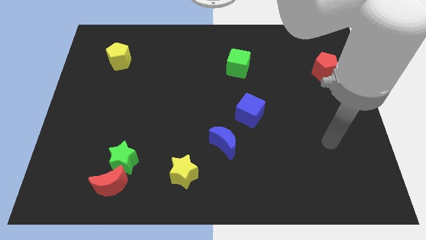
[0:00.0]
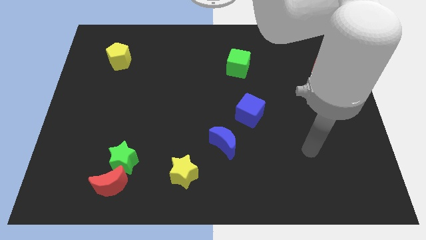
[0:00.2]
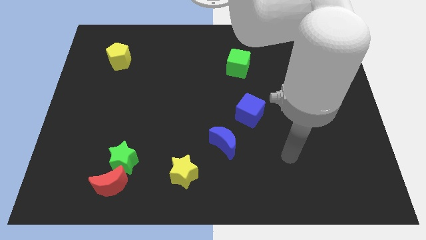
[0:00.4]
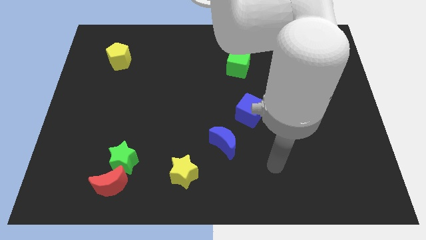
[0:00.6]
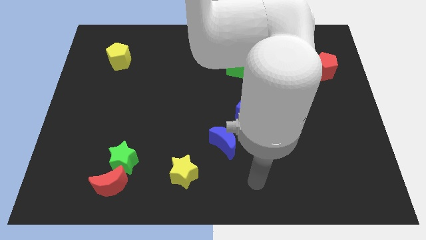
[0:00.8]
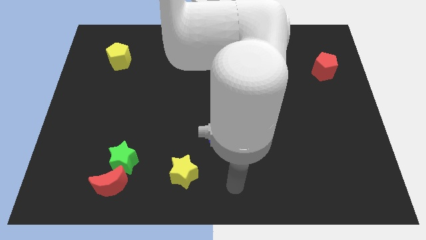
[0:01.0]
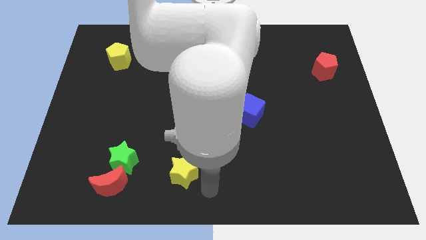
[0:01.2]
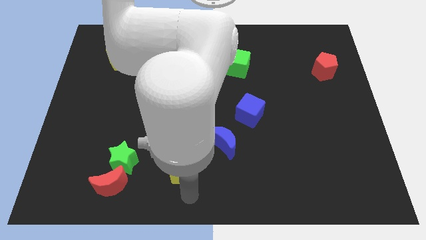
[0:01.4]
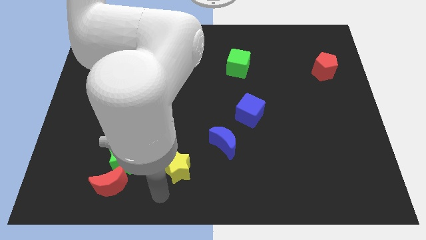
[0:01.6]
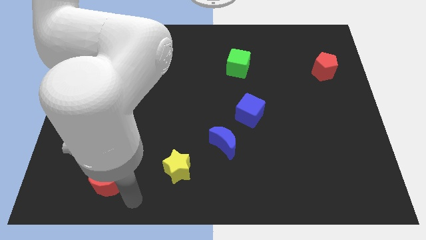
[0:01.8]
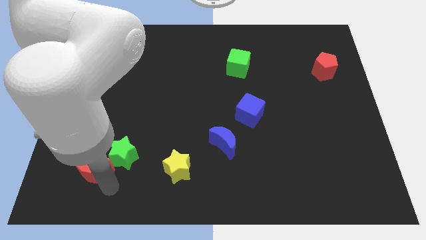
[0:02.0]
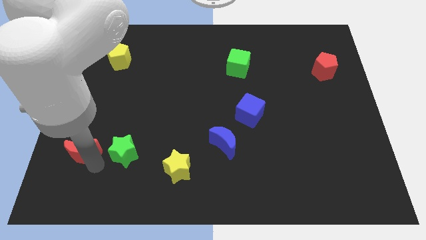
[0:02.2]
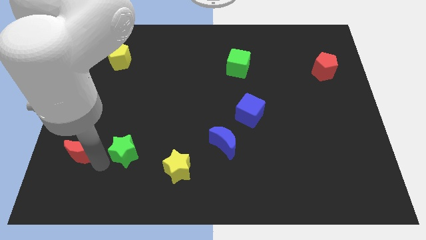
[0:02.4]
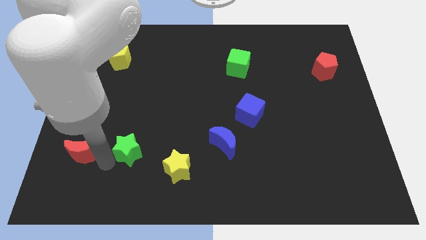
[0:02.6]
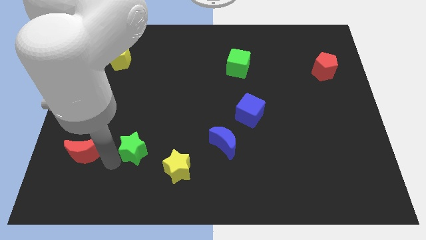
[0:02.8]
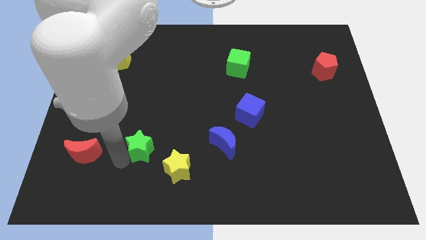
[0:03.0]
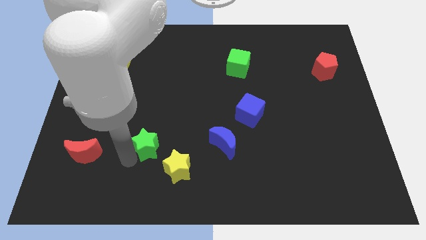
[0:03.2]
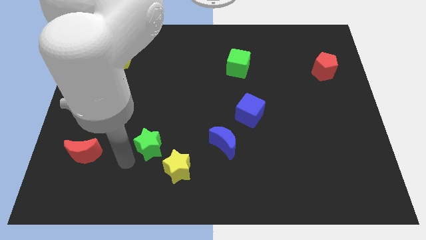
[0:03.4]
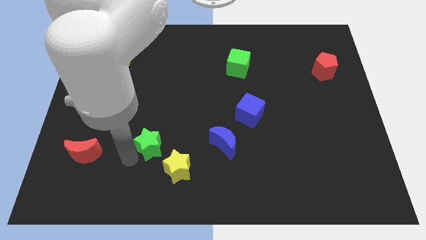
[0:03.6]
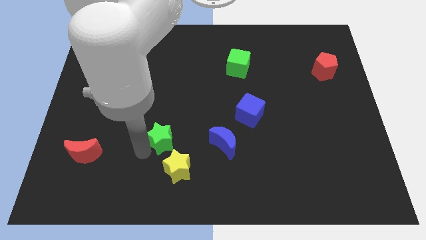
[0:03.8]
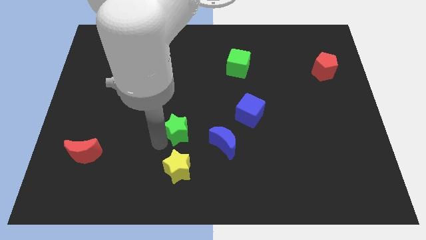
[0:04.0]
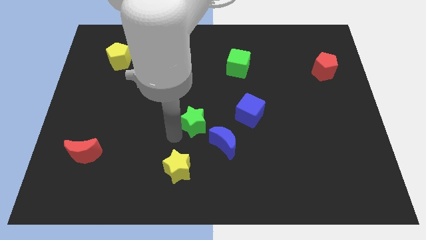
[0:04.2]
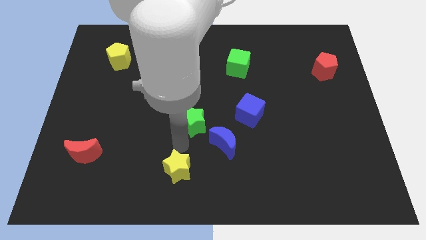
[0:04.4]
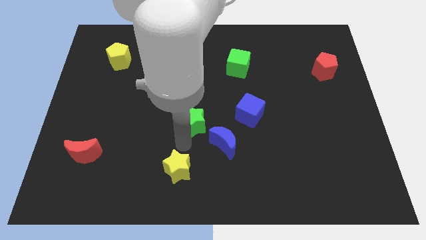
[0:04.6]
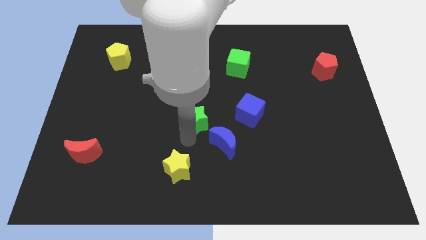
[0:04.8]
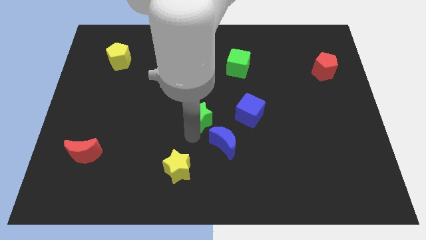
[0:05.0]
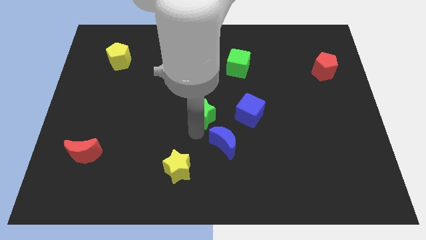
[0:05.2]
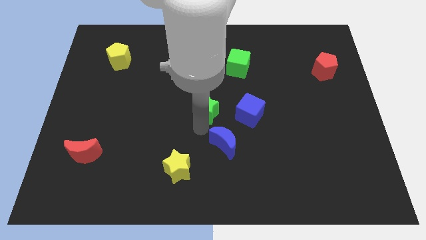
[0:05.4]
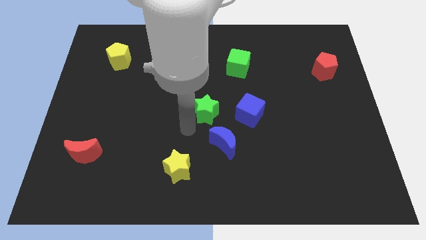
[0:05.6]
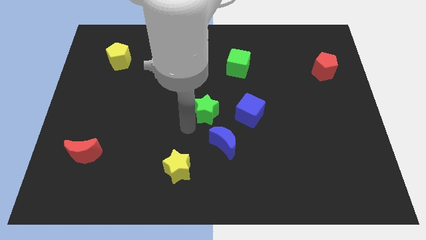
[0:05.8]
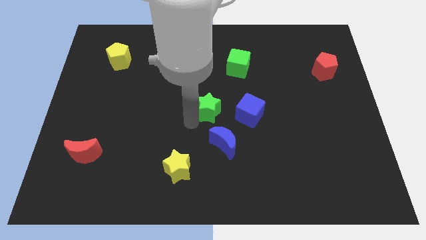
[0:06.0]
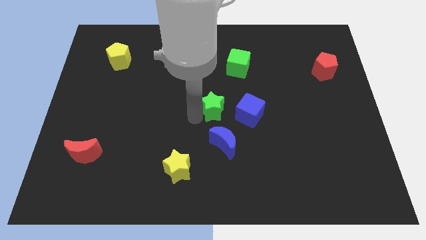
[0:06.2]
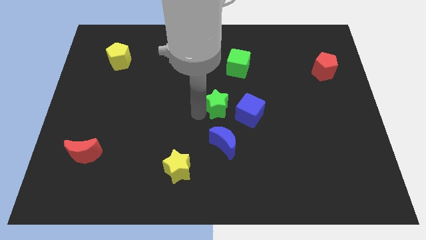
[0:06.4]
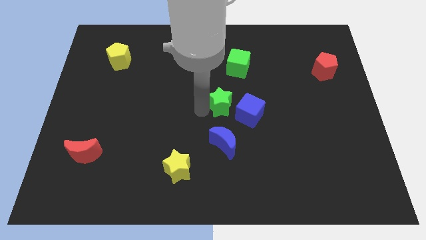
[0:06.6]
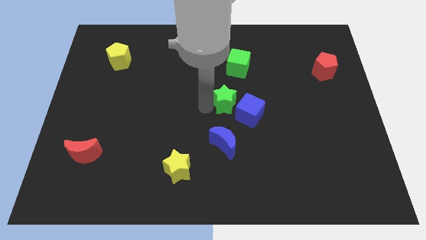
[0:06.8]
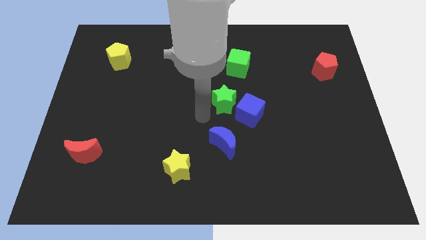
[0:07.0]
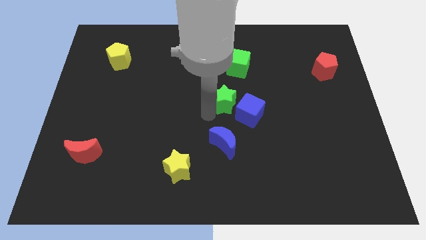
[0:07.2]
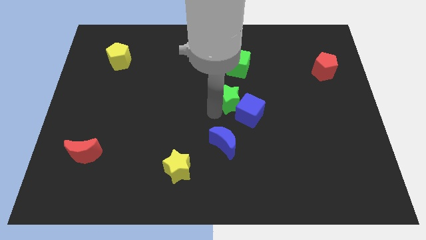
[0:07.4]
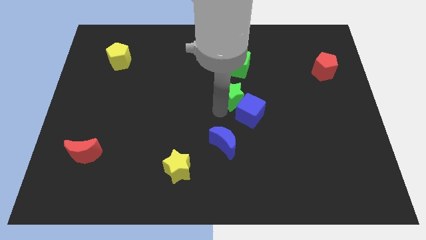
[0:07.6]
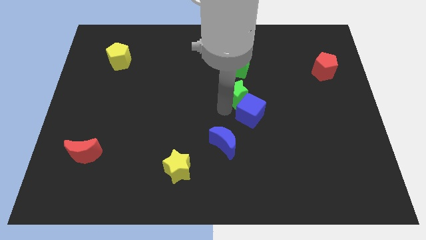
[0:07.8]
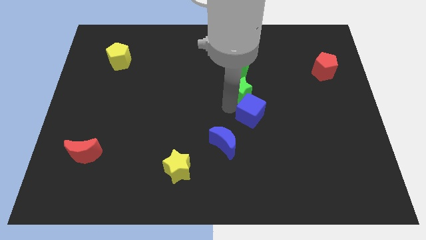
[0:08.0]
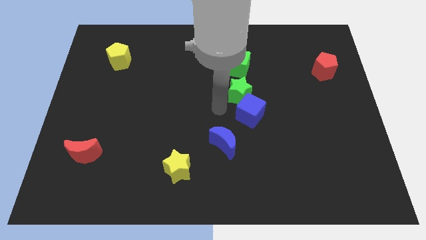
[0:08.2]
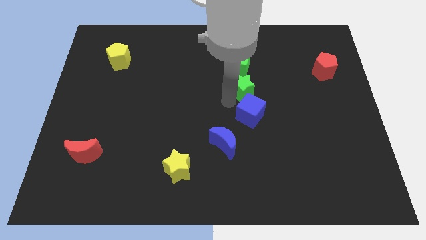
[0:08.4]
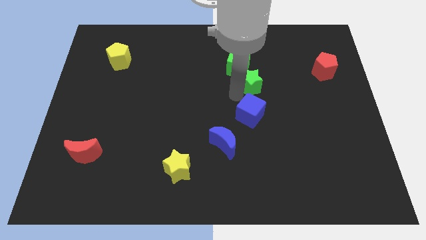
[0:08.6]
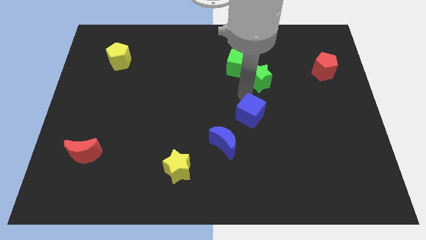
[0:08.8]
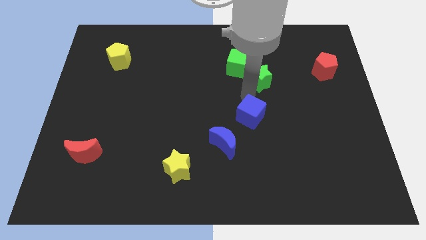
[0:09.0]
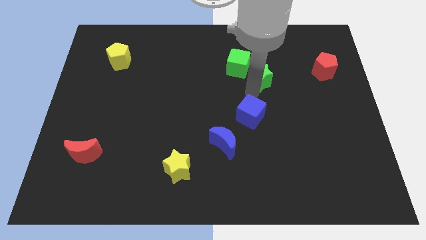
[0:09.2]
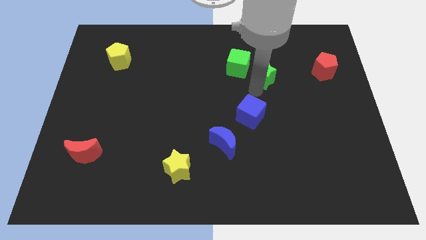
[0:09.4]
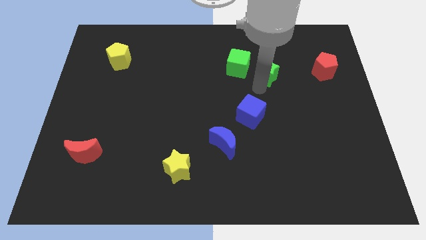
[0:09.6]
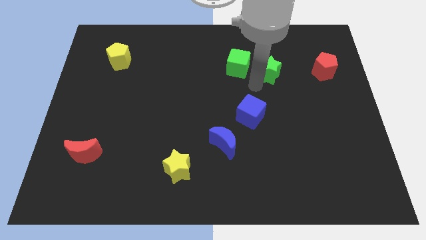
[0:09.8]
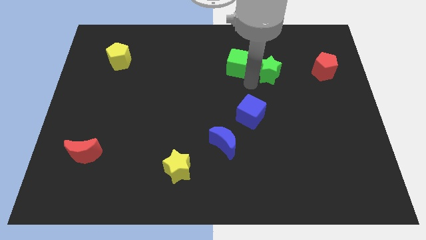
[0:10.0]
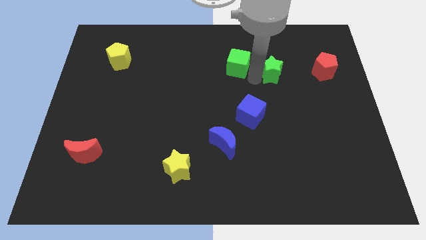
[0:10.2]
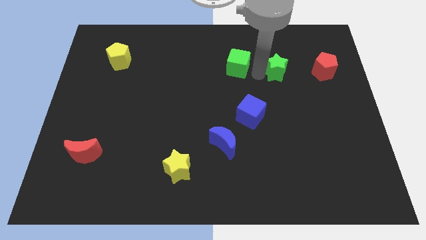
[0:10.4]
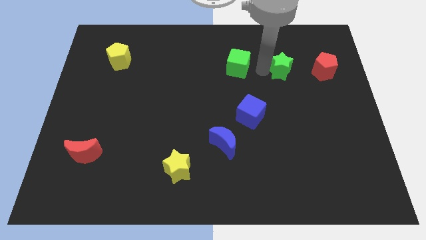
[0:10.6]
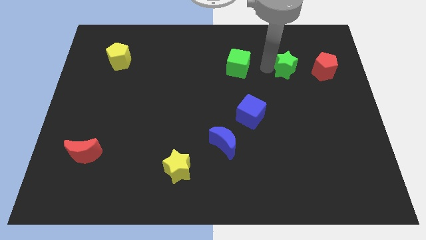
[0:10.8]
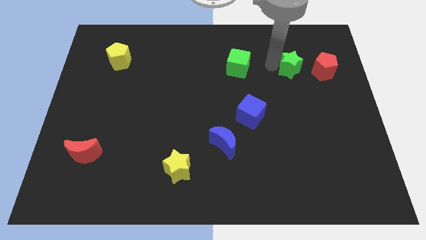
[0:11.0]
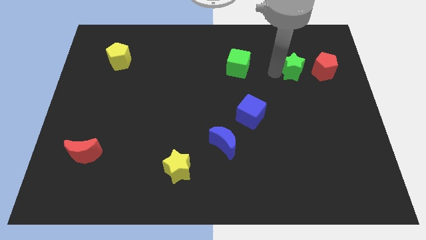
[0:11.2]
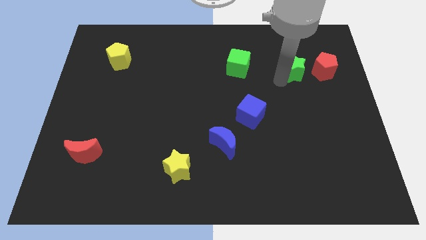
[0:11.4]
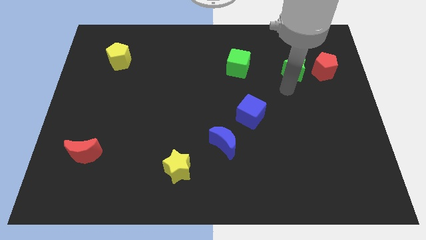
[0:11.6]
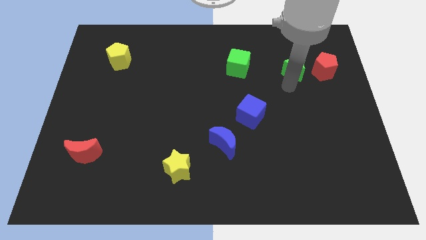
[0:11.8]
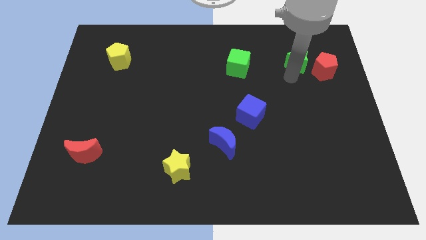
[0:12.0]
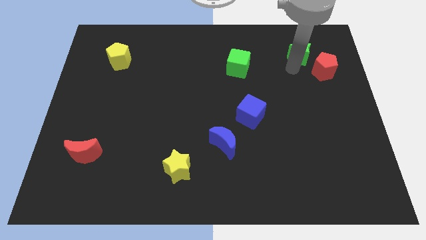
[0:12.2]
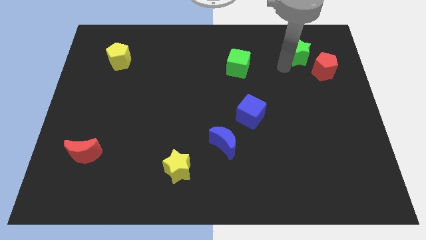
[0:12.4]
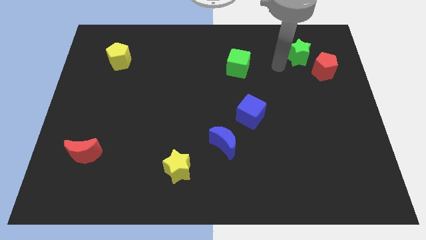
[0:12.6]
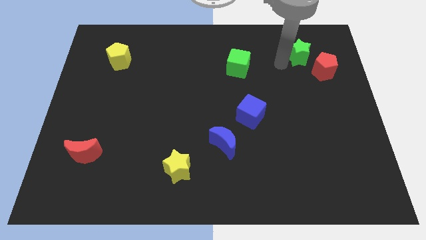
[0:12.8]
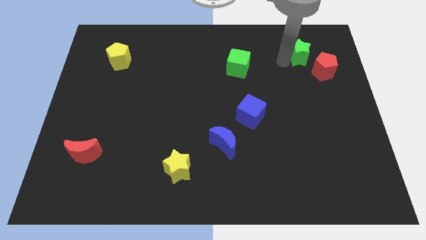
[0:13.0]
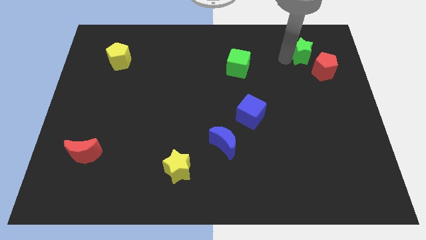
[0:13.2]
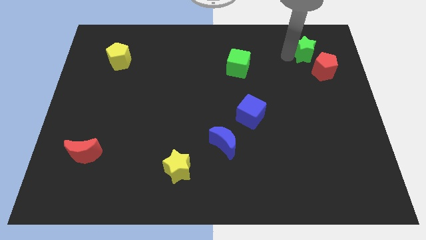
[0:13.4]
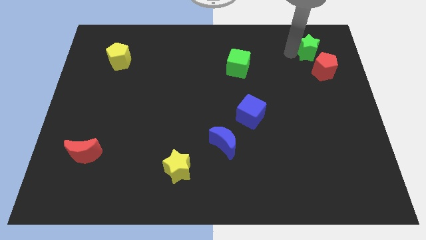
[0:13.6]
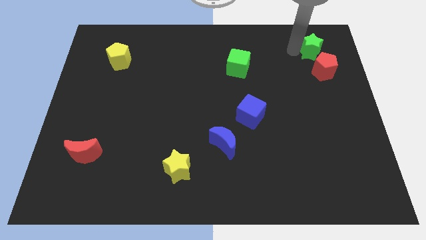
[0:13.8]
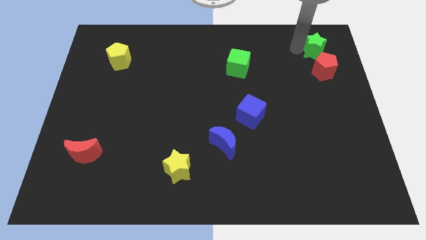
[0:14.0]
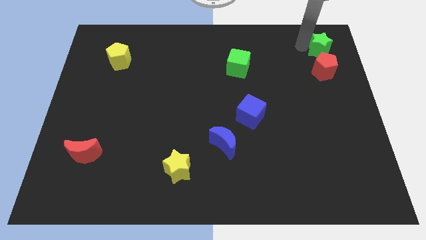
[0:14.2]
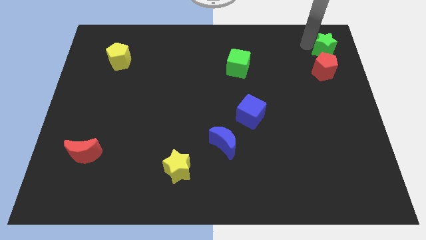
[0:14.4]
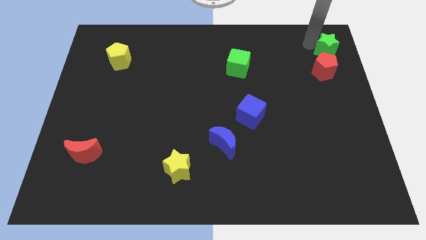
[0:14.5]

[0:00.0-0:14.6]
move the green star to the upper right corner
